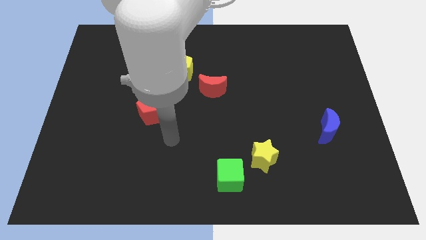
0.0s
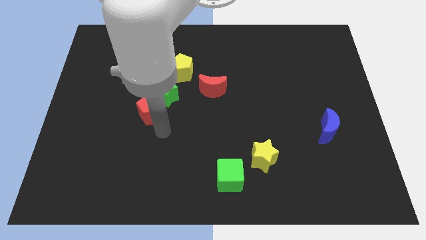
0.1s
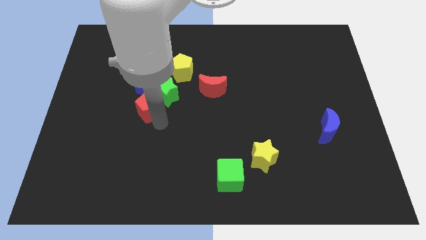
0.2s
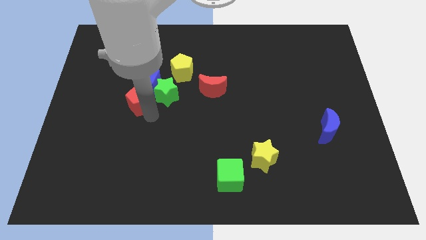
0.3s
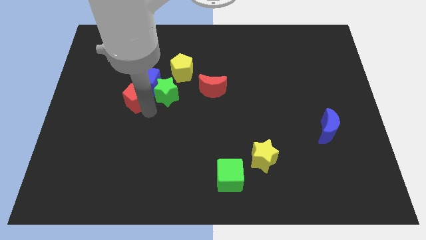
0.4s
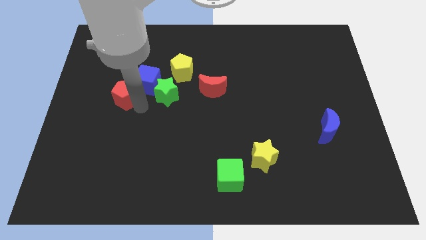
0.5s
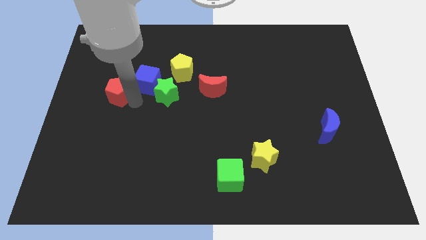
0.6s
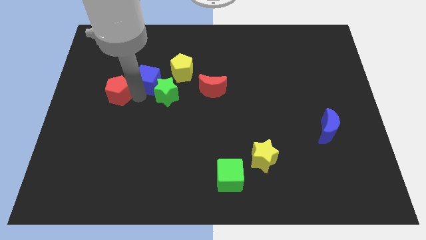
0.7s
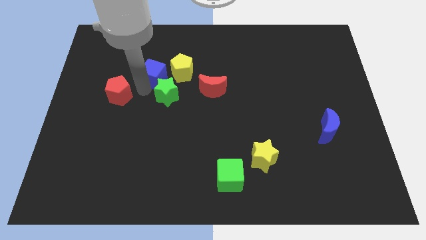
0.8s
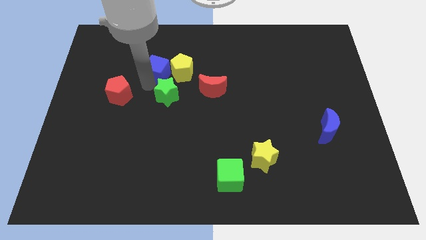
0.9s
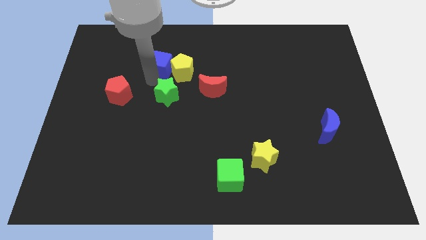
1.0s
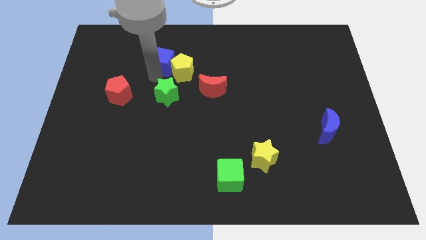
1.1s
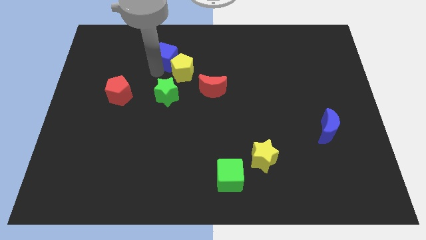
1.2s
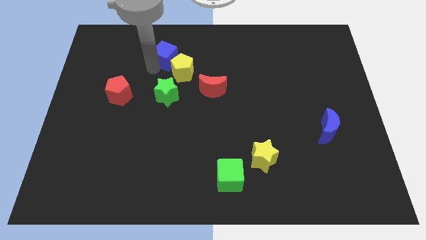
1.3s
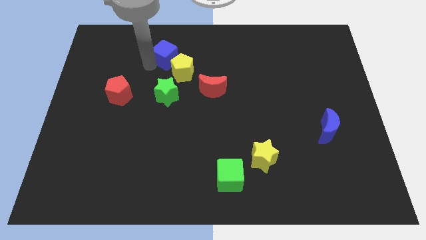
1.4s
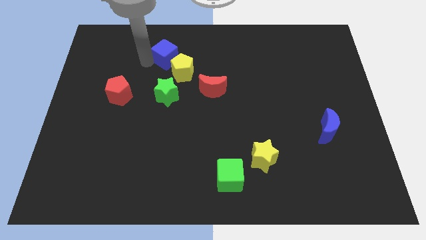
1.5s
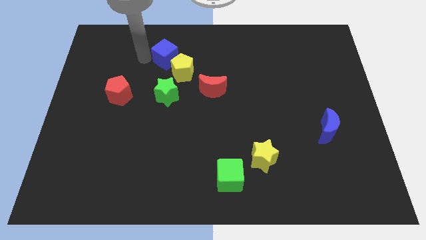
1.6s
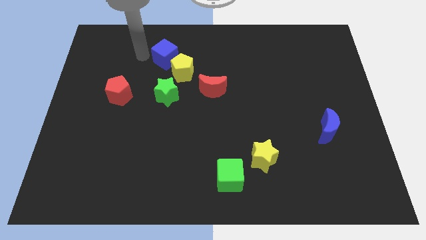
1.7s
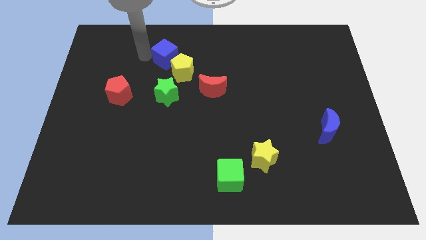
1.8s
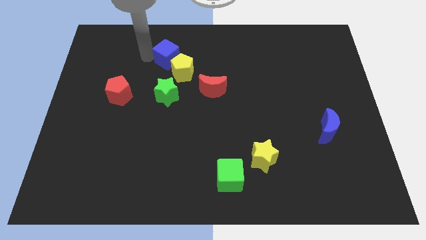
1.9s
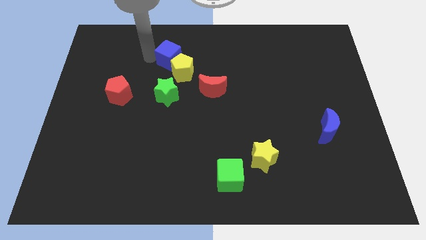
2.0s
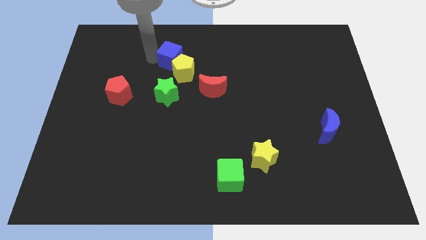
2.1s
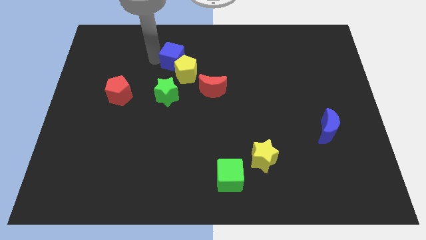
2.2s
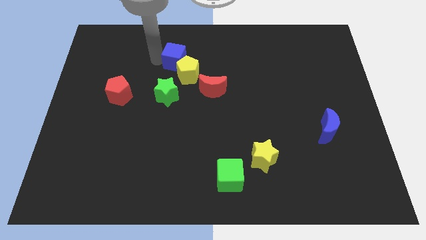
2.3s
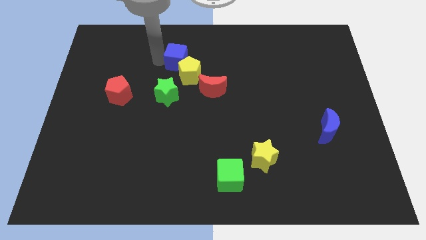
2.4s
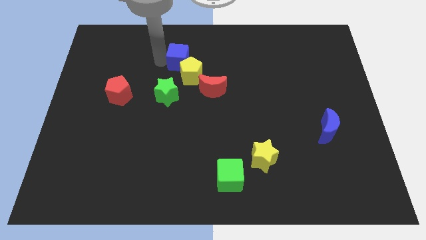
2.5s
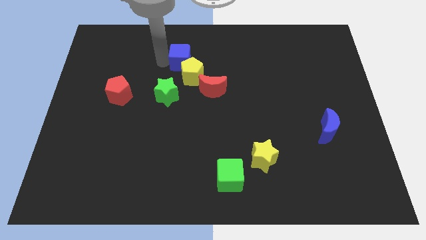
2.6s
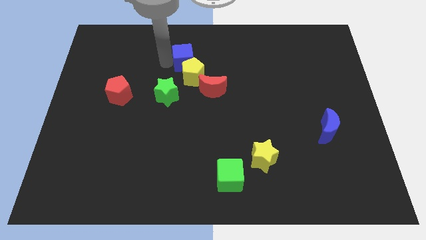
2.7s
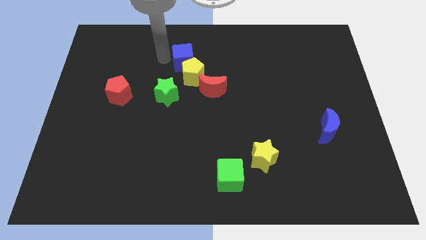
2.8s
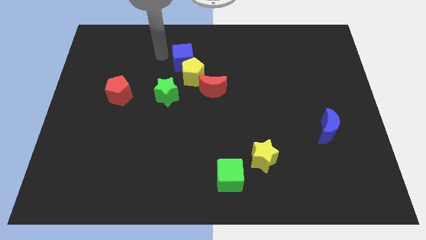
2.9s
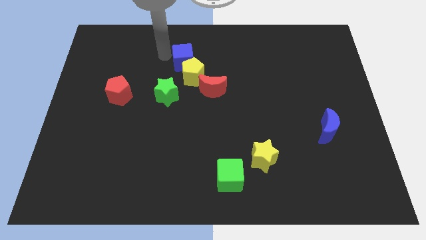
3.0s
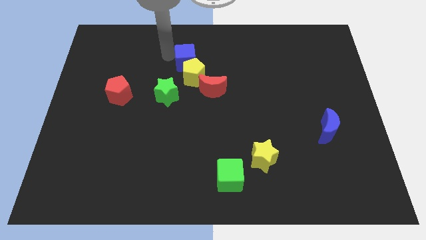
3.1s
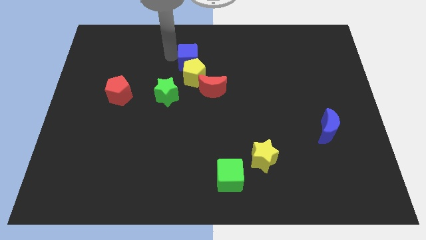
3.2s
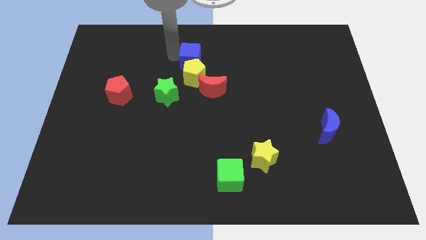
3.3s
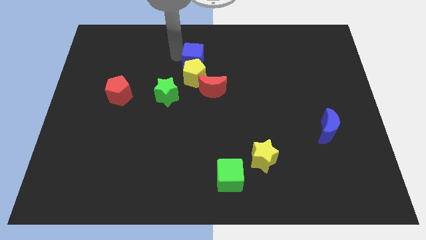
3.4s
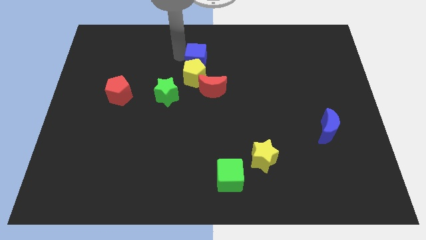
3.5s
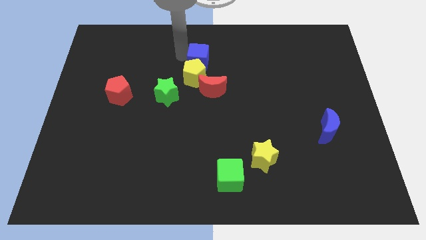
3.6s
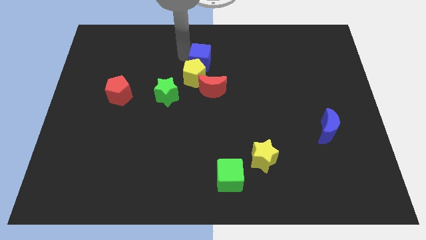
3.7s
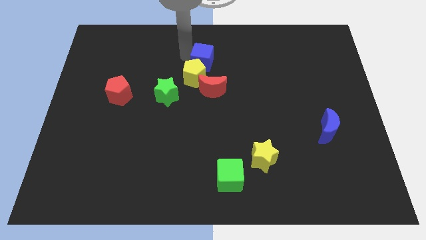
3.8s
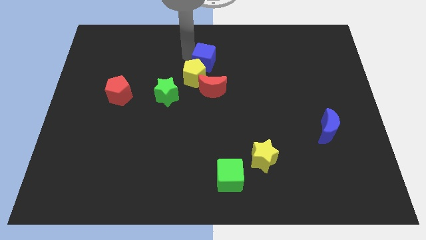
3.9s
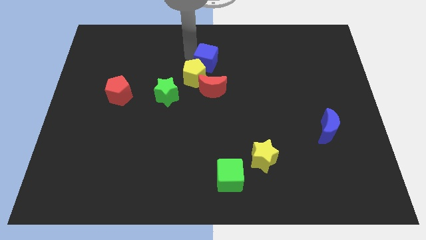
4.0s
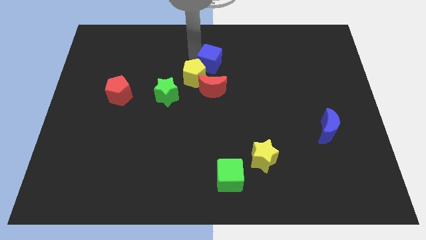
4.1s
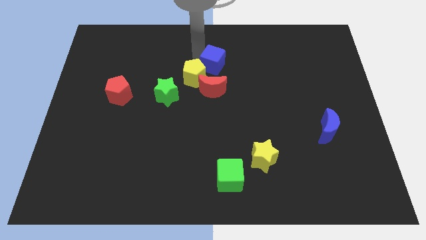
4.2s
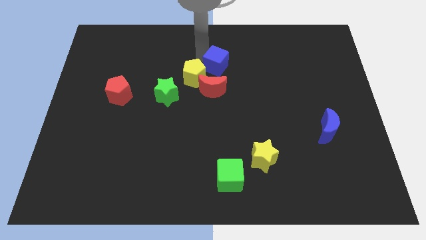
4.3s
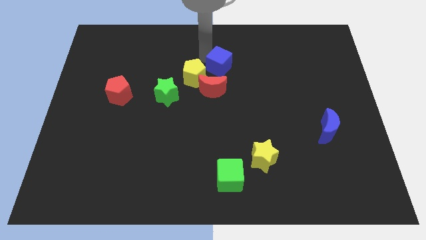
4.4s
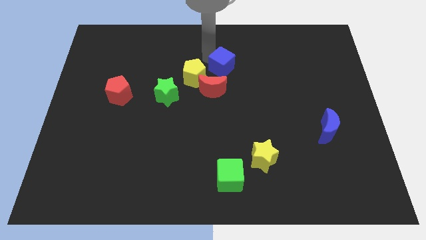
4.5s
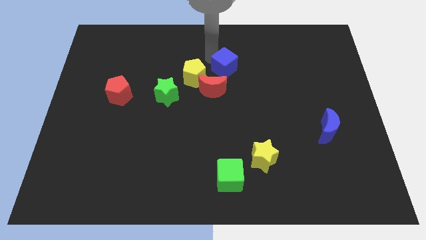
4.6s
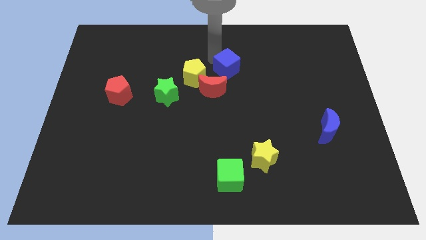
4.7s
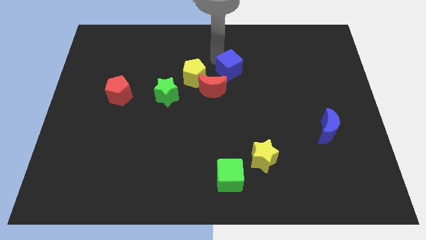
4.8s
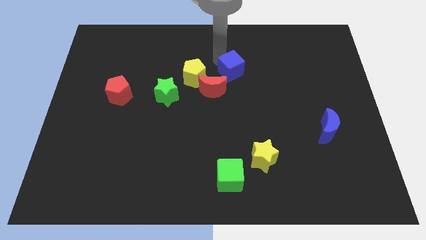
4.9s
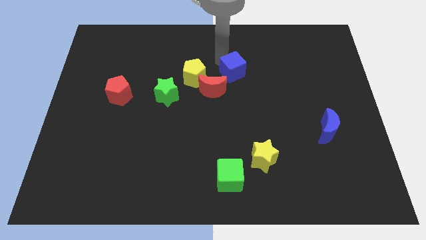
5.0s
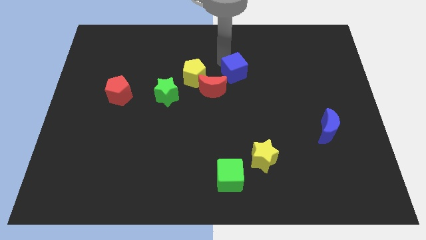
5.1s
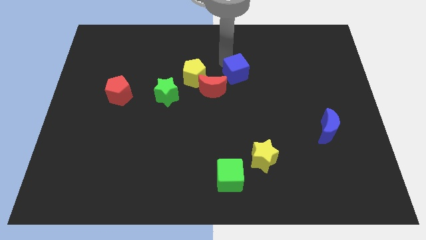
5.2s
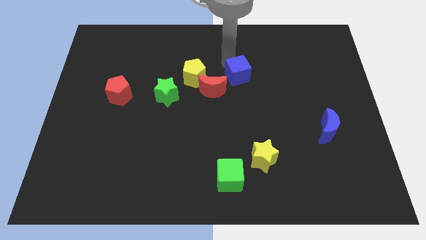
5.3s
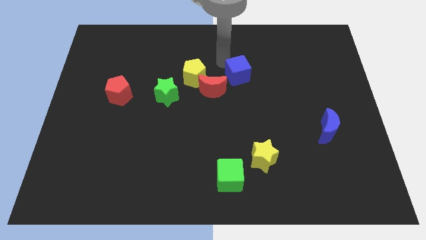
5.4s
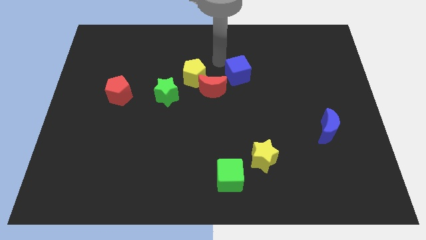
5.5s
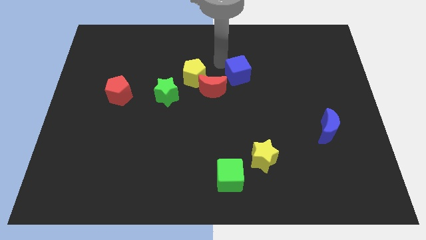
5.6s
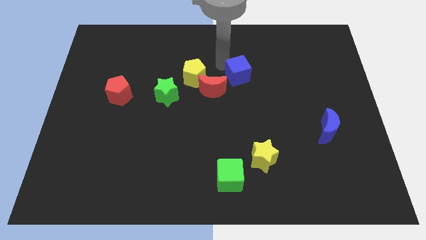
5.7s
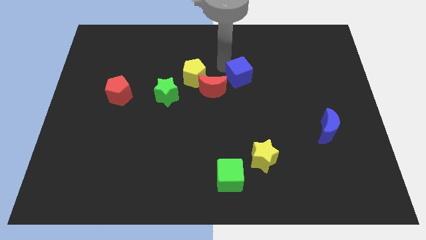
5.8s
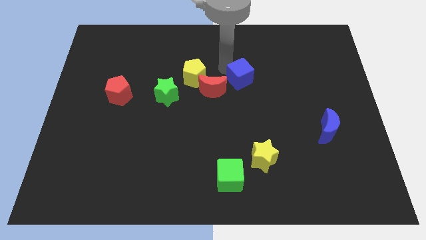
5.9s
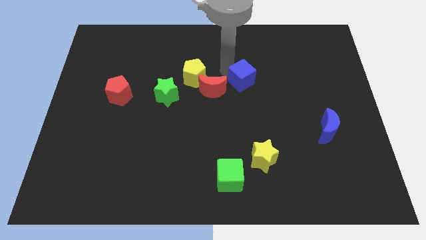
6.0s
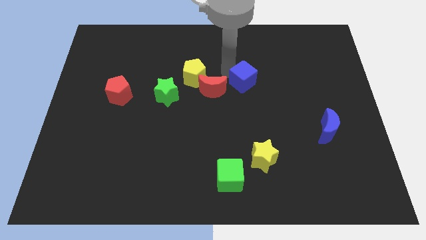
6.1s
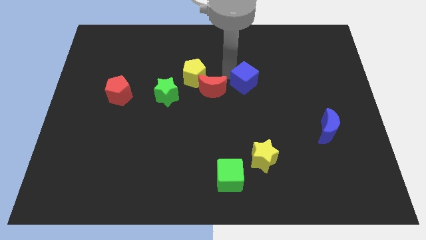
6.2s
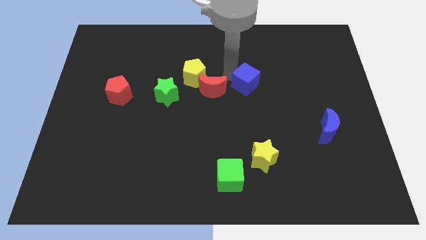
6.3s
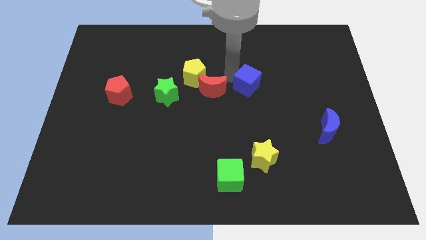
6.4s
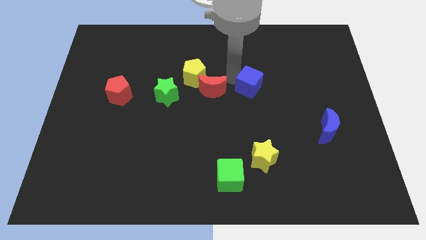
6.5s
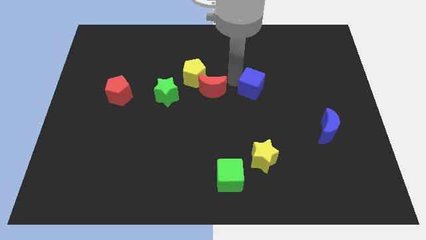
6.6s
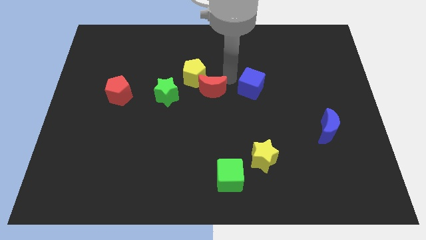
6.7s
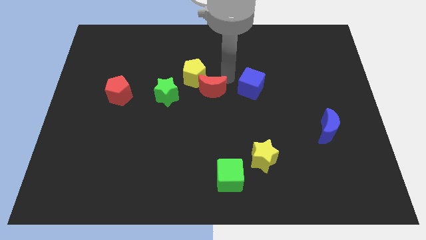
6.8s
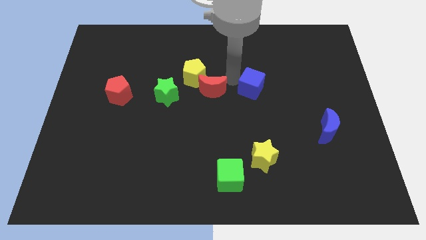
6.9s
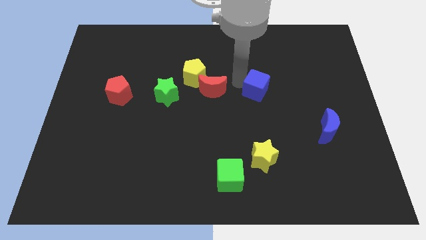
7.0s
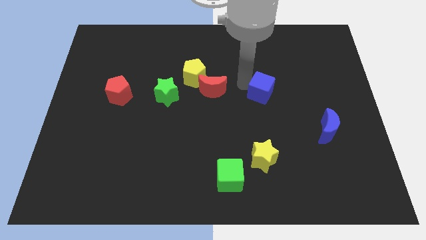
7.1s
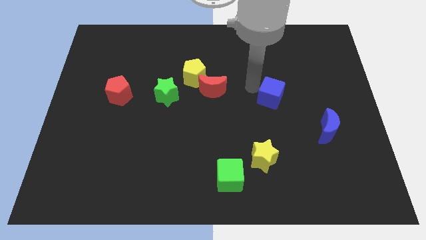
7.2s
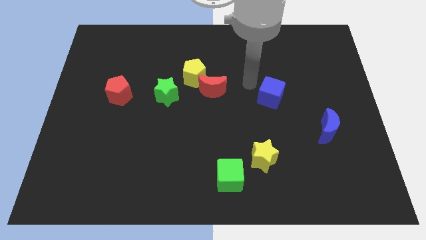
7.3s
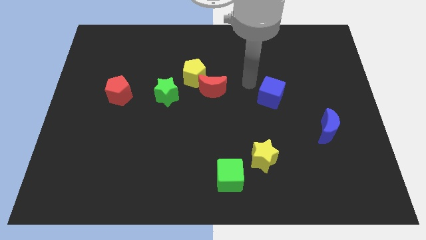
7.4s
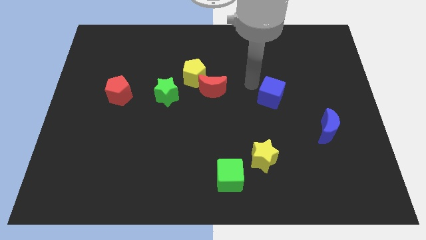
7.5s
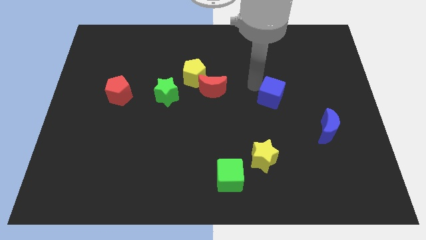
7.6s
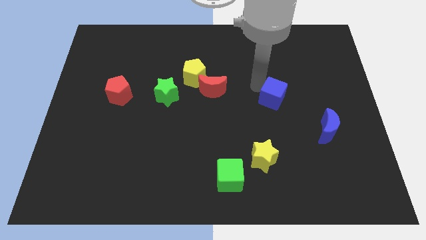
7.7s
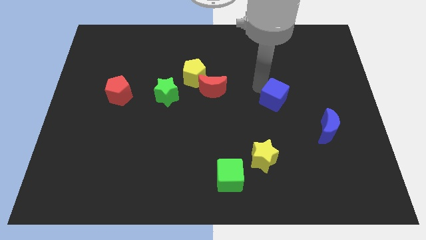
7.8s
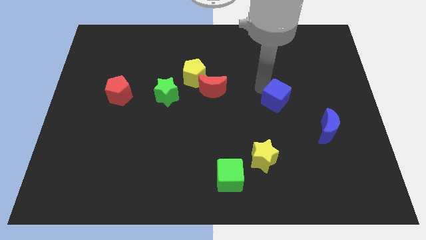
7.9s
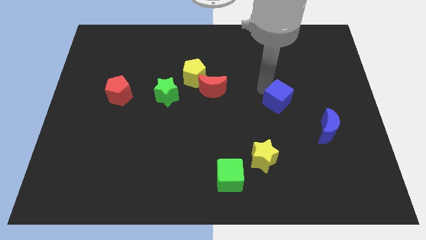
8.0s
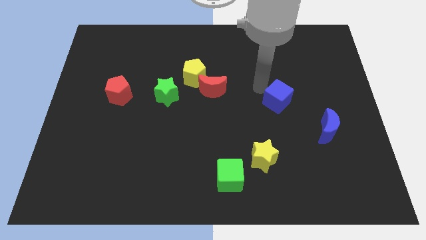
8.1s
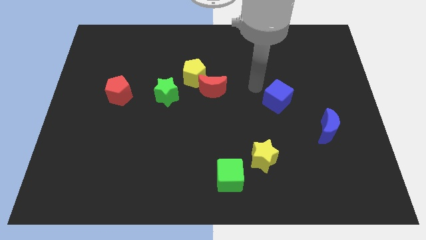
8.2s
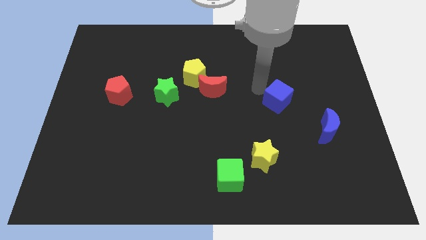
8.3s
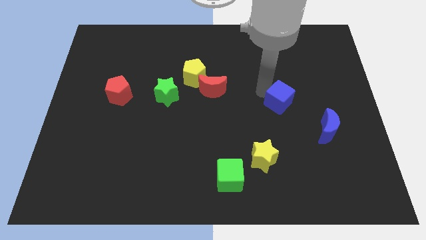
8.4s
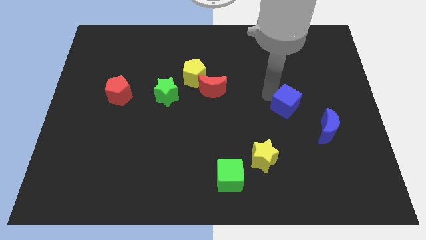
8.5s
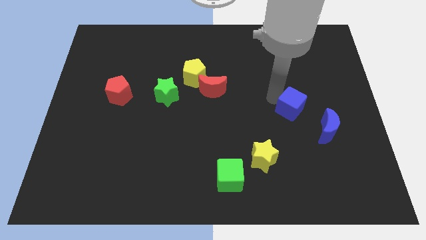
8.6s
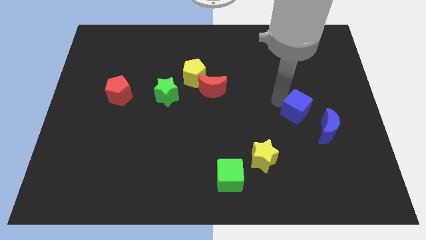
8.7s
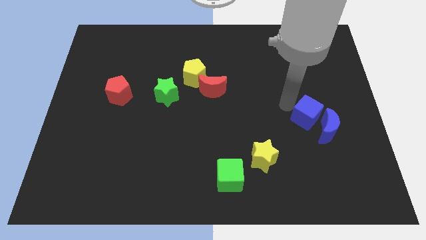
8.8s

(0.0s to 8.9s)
put the blue cube to the blue moon
